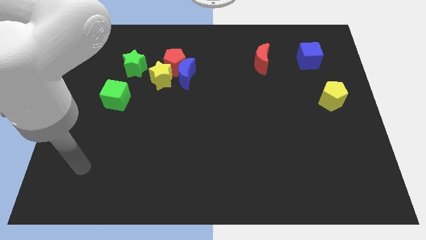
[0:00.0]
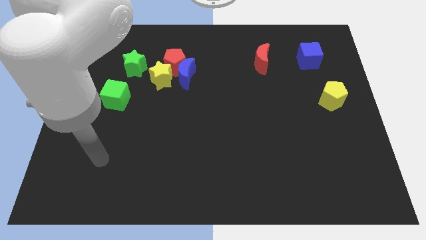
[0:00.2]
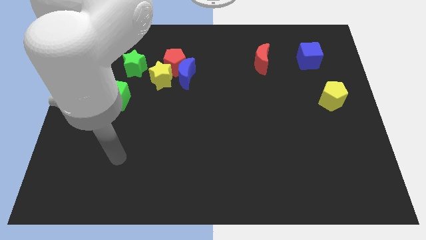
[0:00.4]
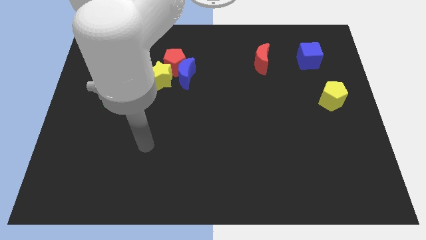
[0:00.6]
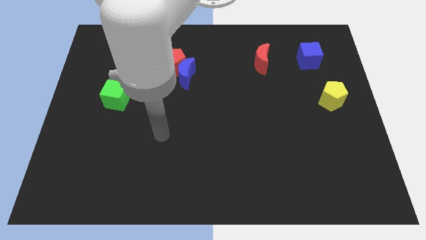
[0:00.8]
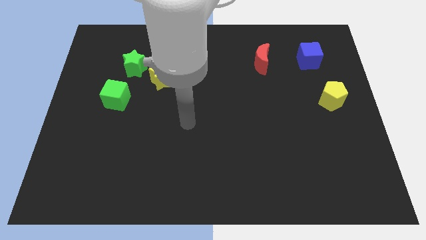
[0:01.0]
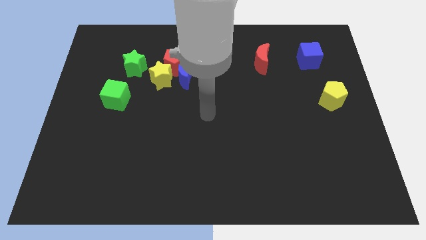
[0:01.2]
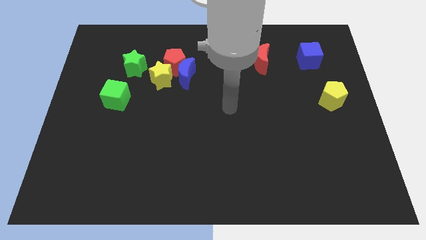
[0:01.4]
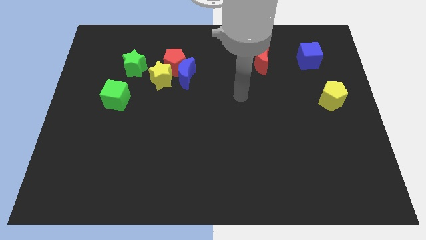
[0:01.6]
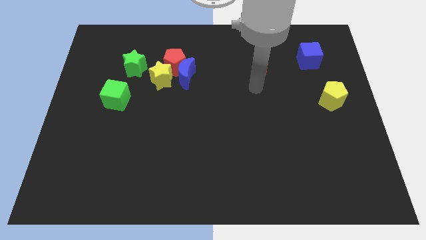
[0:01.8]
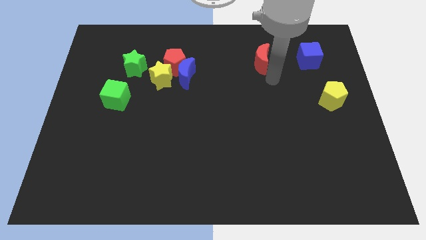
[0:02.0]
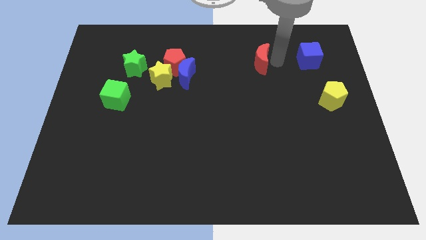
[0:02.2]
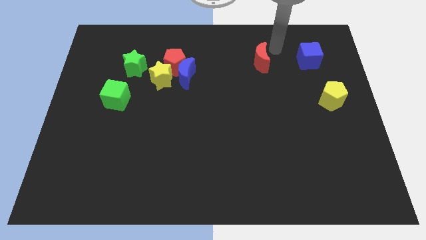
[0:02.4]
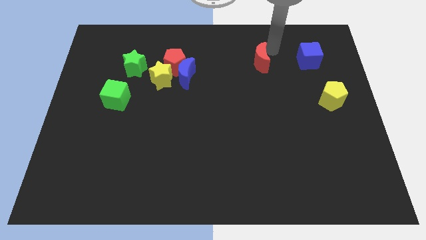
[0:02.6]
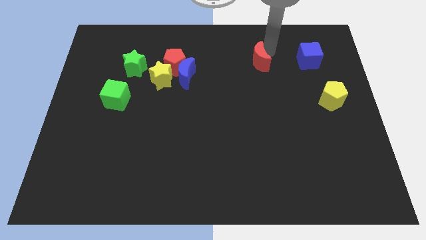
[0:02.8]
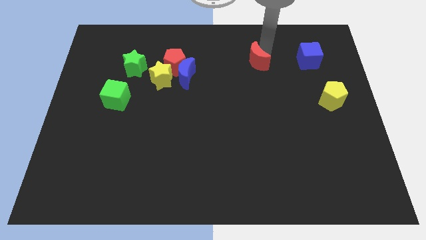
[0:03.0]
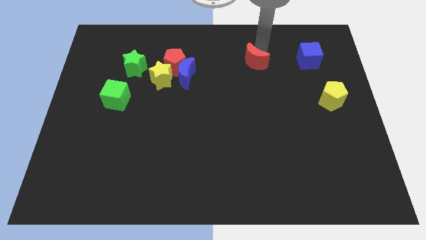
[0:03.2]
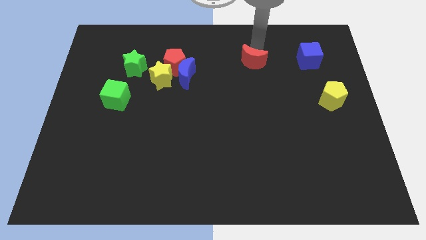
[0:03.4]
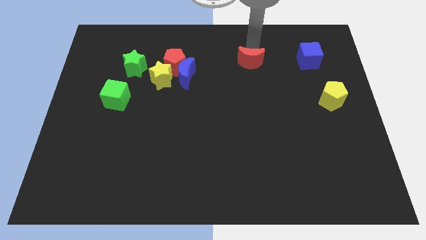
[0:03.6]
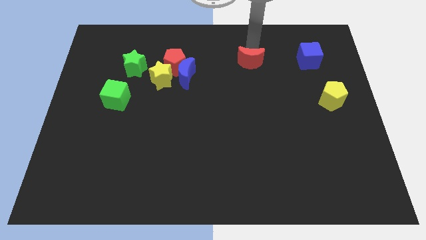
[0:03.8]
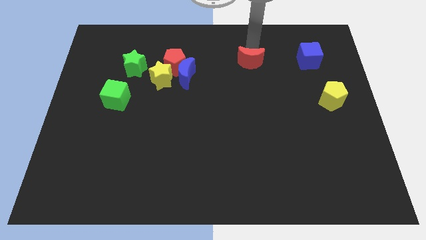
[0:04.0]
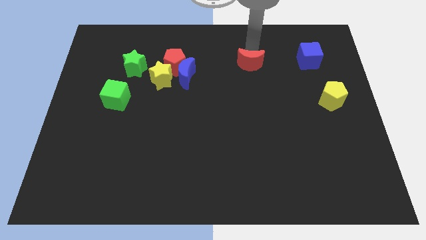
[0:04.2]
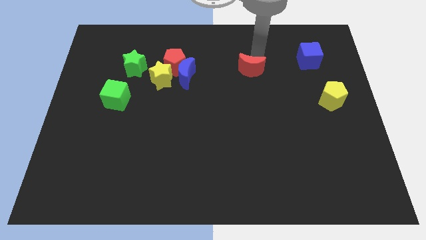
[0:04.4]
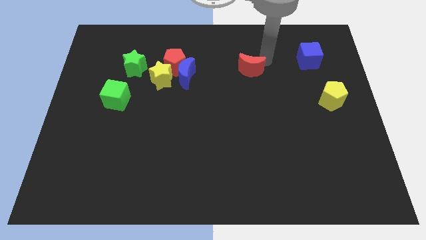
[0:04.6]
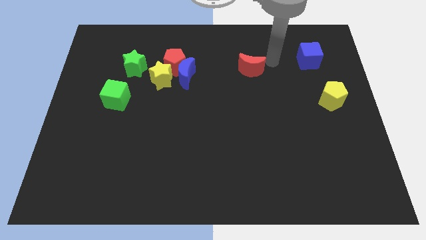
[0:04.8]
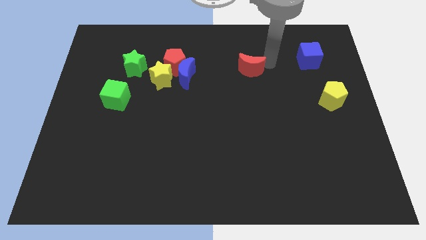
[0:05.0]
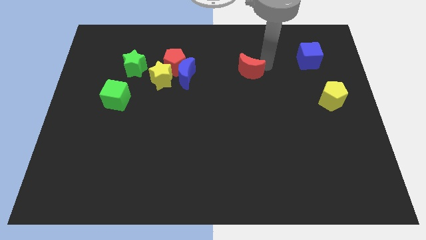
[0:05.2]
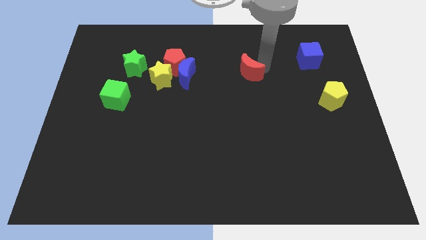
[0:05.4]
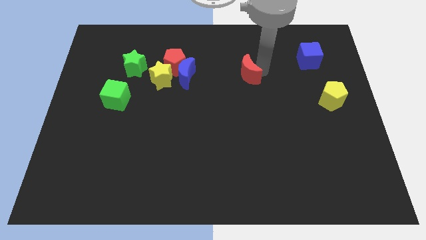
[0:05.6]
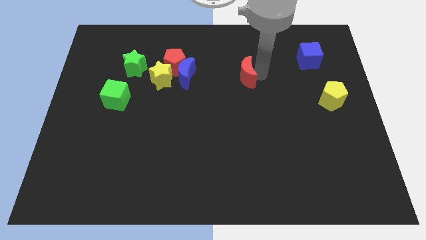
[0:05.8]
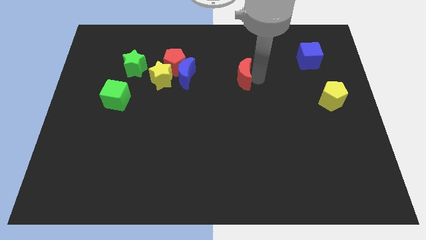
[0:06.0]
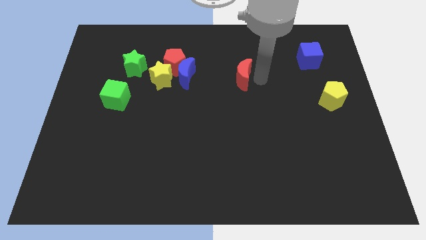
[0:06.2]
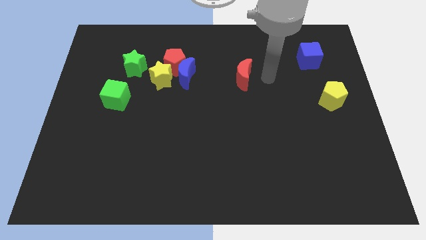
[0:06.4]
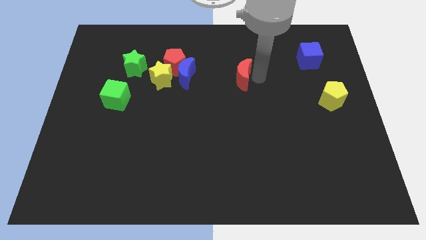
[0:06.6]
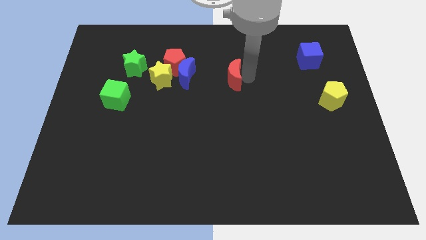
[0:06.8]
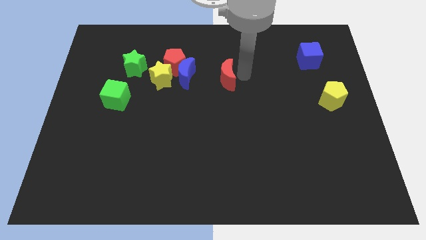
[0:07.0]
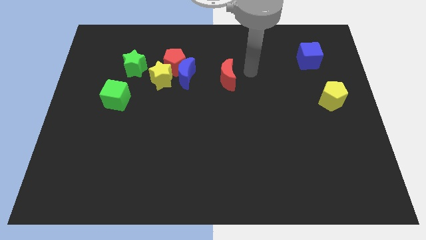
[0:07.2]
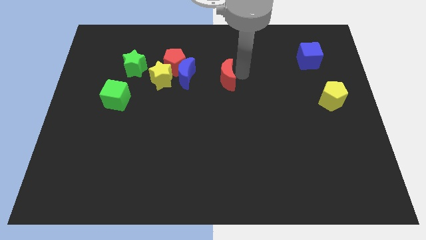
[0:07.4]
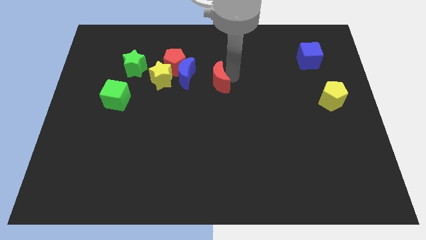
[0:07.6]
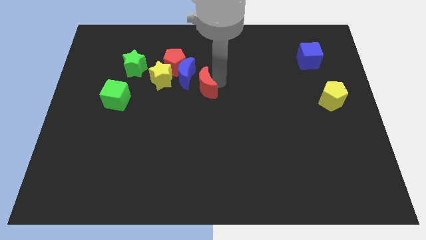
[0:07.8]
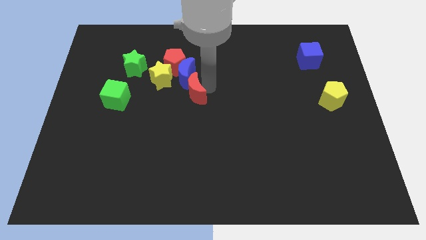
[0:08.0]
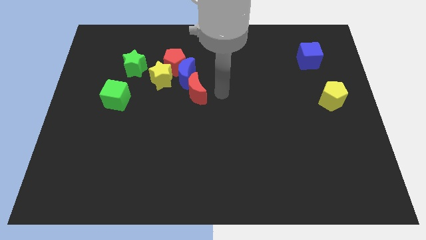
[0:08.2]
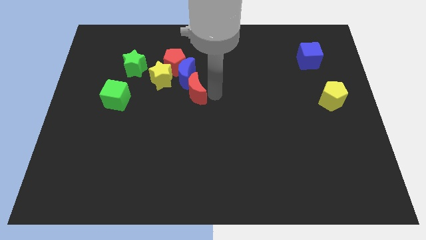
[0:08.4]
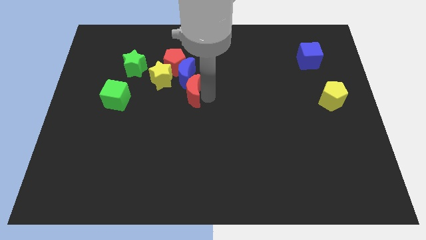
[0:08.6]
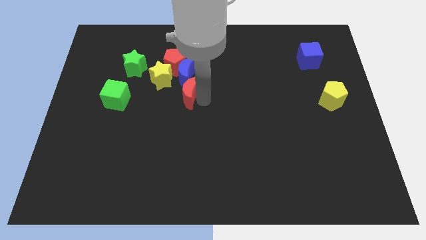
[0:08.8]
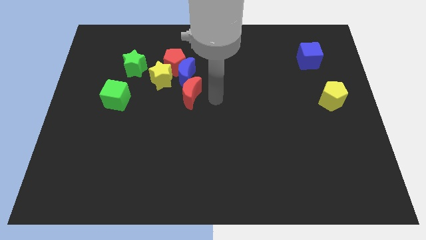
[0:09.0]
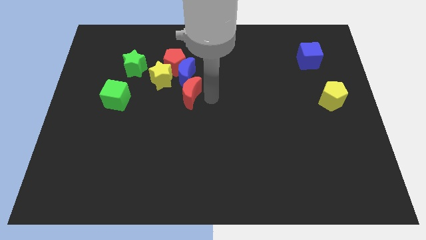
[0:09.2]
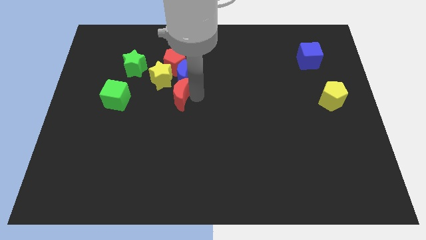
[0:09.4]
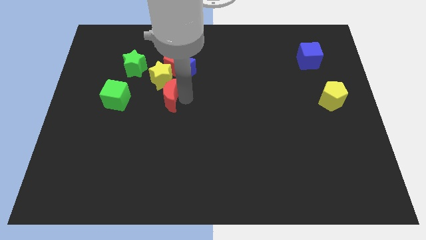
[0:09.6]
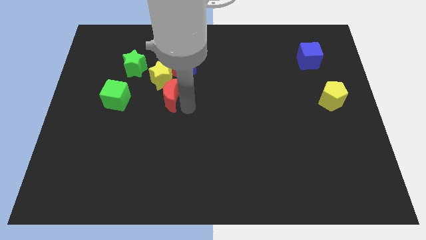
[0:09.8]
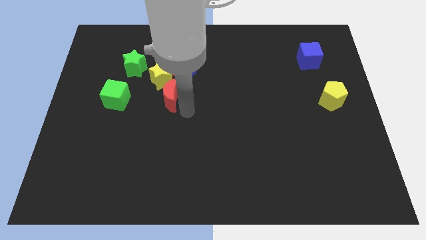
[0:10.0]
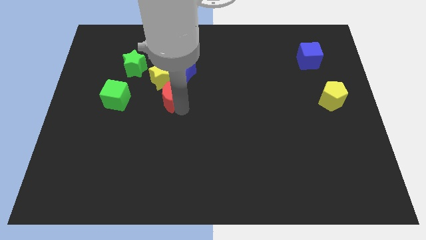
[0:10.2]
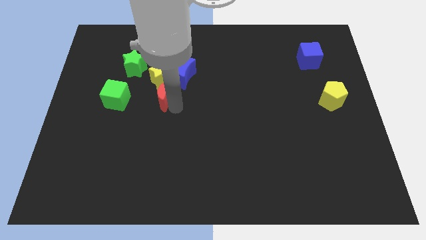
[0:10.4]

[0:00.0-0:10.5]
move the red moon diagonally down and to the right of the green star

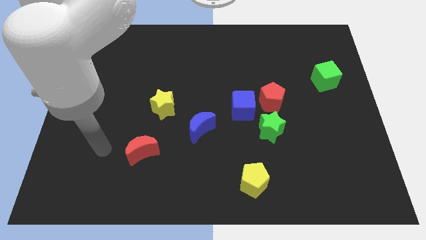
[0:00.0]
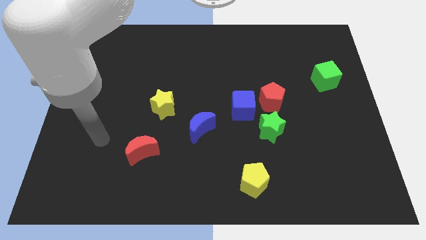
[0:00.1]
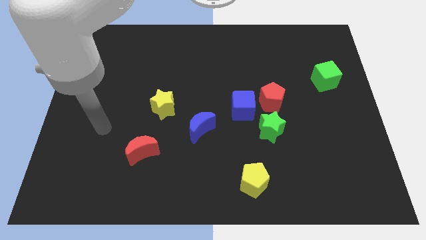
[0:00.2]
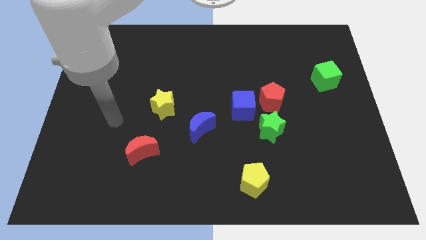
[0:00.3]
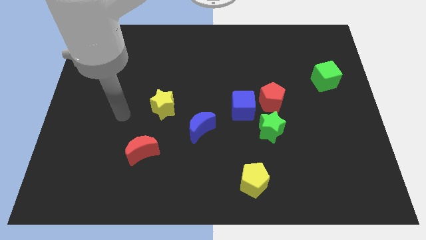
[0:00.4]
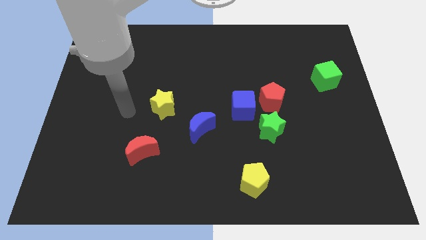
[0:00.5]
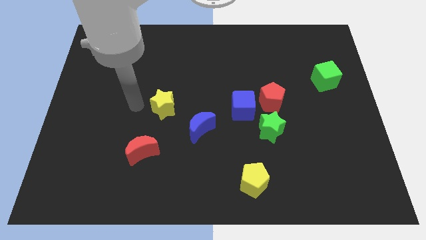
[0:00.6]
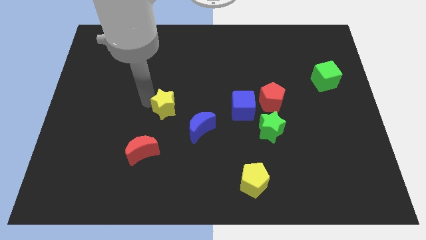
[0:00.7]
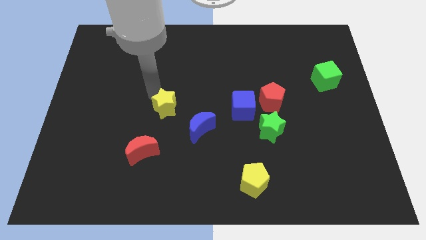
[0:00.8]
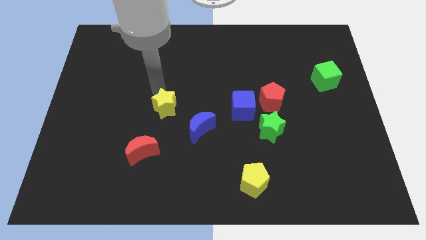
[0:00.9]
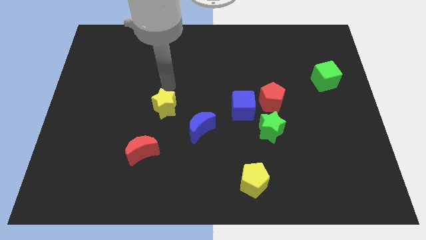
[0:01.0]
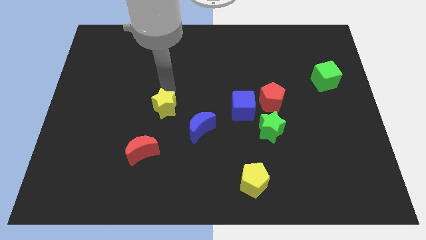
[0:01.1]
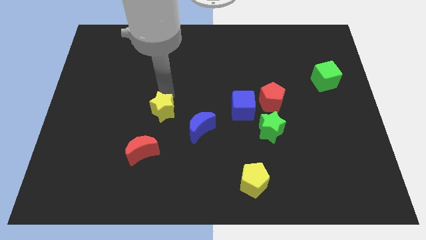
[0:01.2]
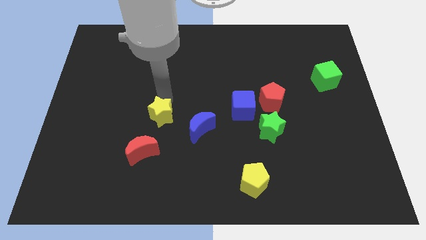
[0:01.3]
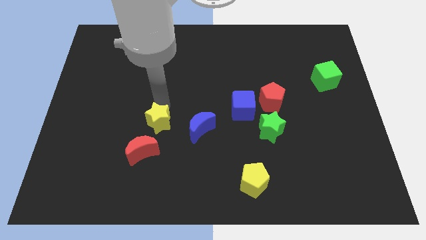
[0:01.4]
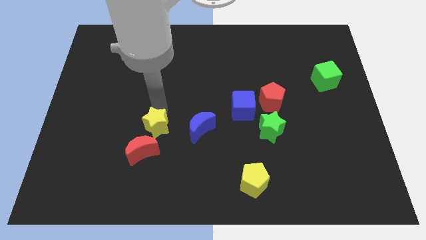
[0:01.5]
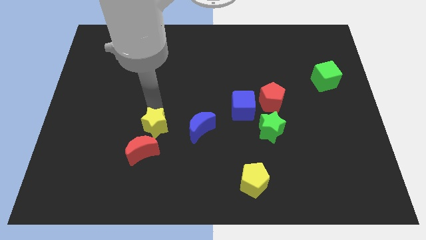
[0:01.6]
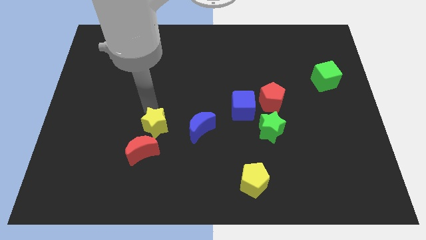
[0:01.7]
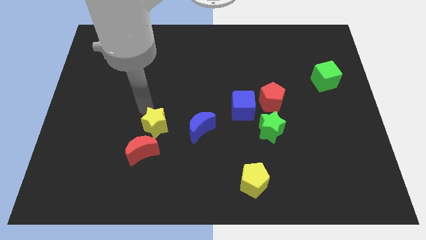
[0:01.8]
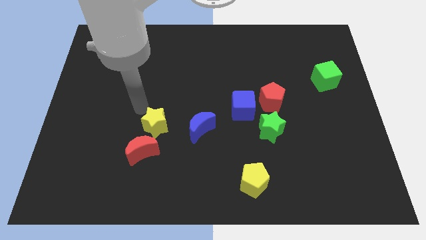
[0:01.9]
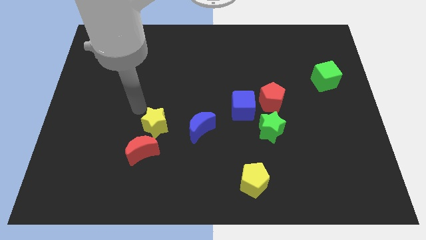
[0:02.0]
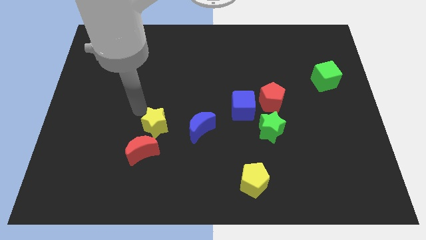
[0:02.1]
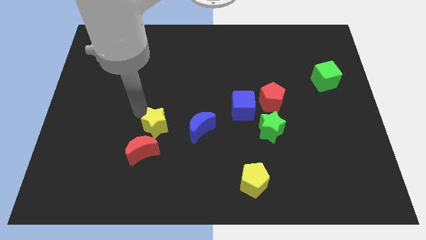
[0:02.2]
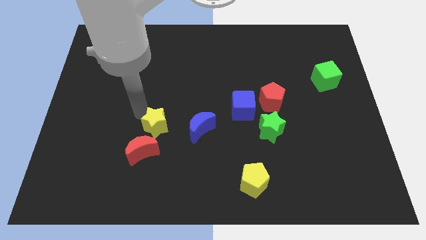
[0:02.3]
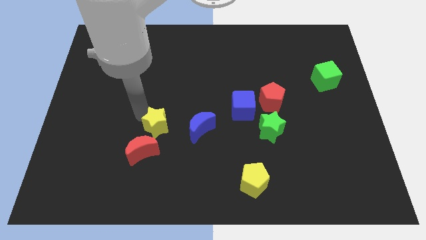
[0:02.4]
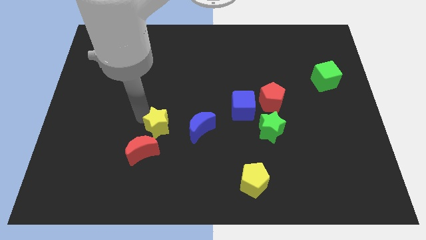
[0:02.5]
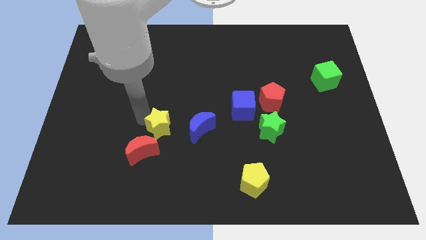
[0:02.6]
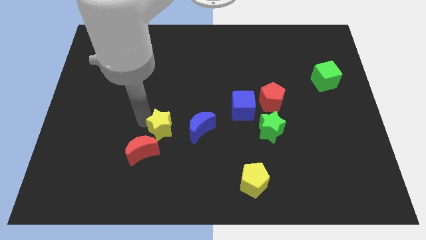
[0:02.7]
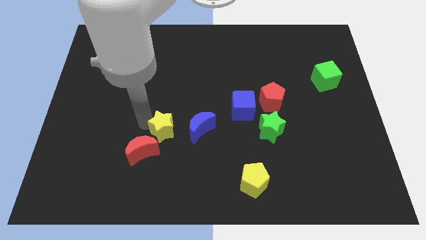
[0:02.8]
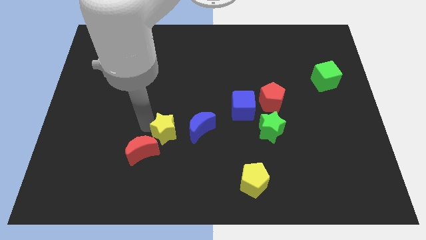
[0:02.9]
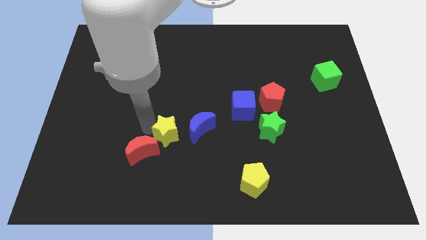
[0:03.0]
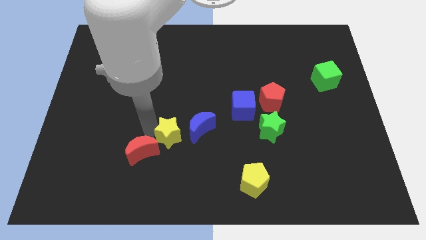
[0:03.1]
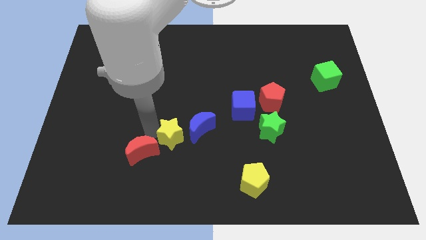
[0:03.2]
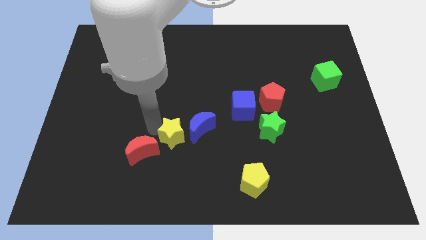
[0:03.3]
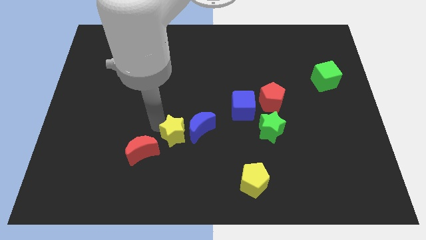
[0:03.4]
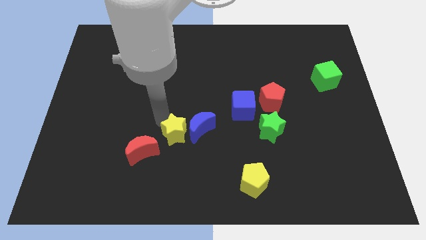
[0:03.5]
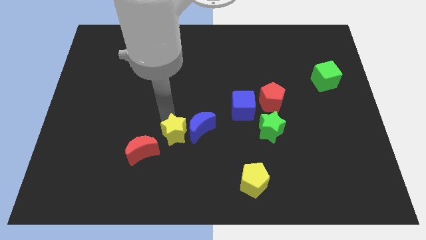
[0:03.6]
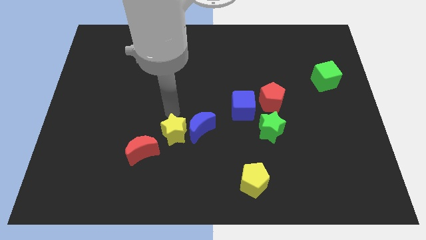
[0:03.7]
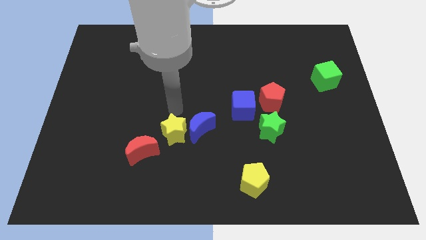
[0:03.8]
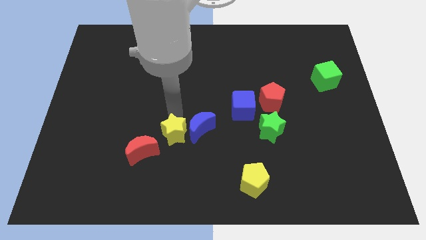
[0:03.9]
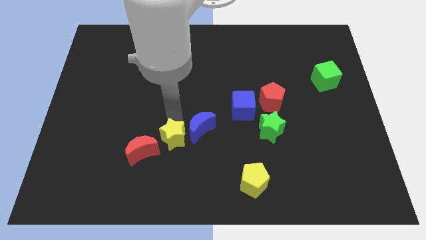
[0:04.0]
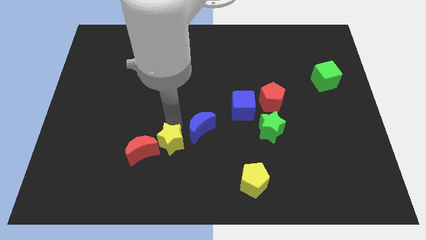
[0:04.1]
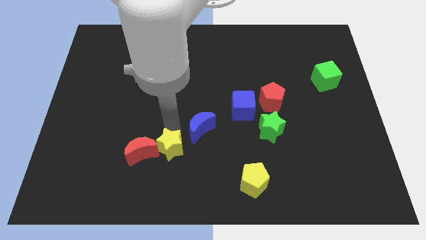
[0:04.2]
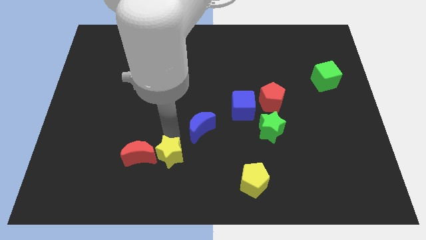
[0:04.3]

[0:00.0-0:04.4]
push the yellow star diagonally down and to the right of the red moon
